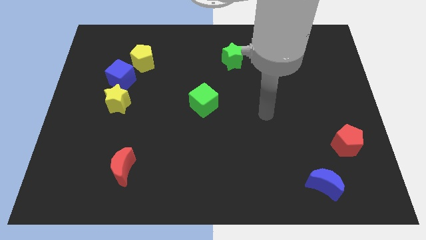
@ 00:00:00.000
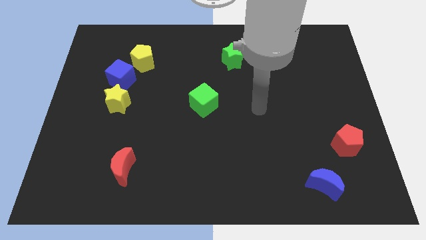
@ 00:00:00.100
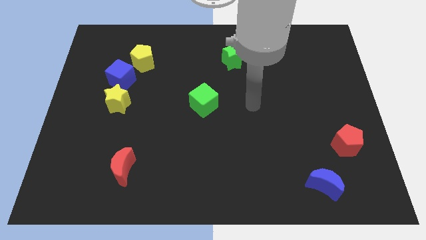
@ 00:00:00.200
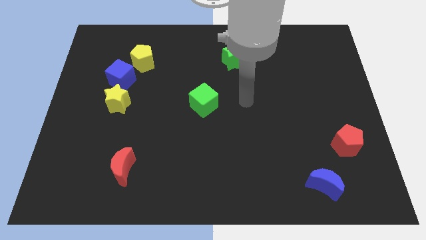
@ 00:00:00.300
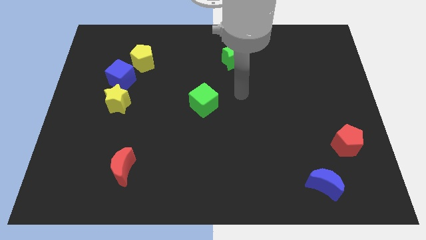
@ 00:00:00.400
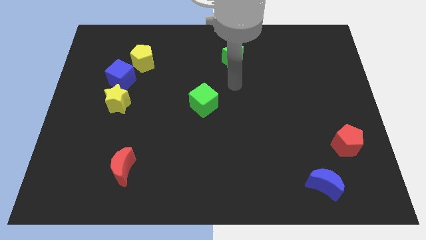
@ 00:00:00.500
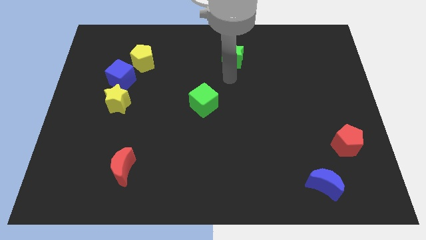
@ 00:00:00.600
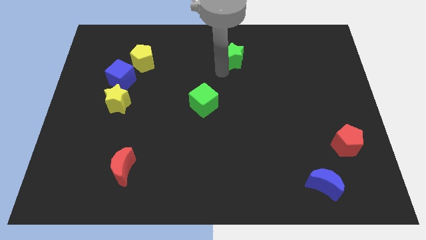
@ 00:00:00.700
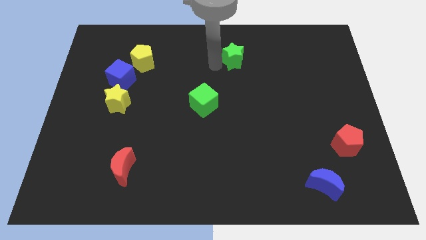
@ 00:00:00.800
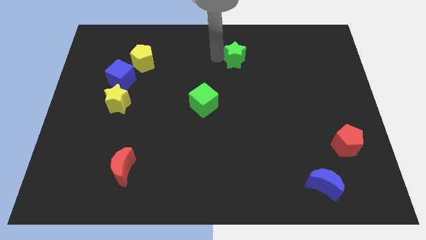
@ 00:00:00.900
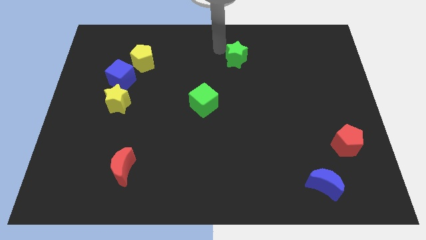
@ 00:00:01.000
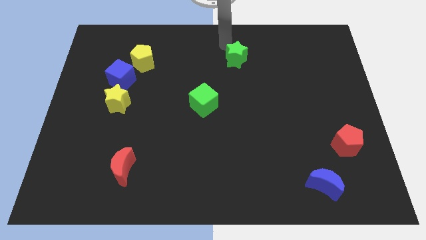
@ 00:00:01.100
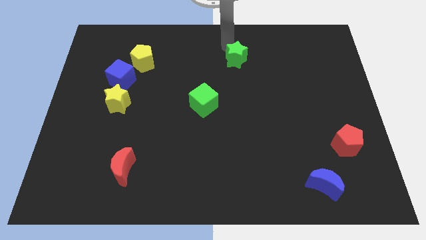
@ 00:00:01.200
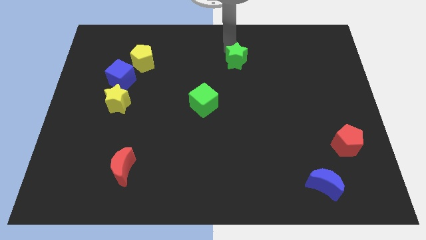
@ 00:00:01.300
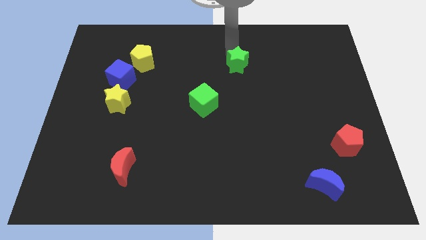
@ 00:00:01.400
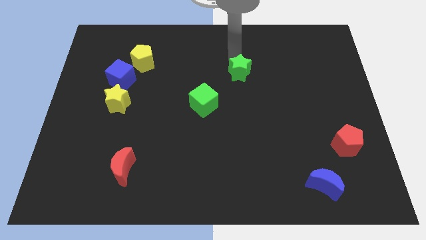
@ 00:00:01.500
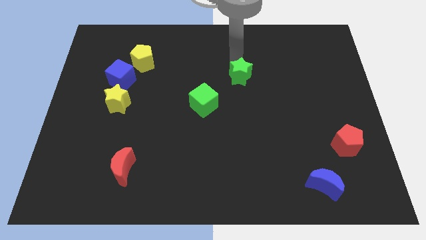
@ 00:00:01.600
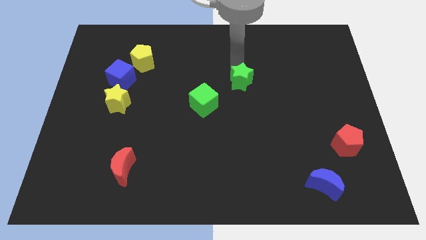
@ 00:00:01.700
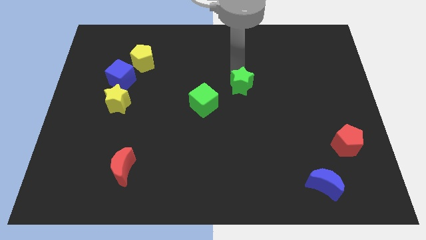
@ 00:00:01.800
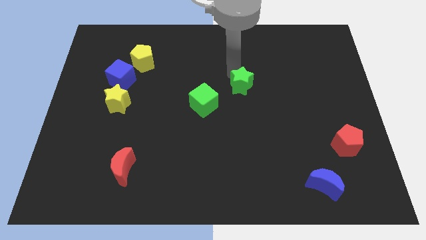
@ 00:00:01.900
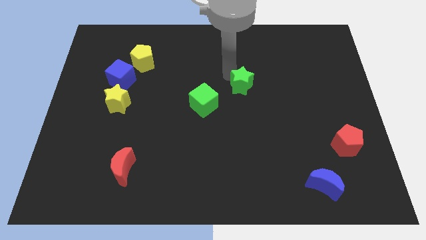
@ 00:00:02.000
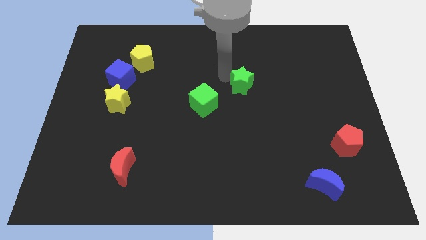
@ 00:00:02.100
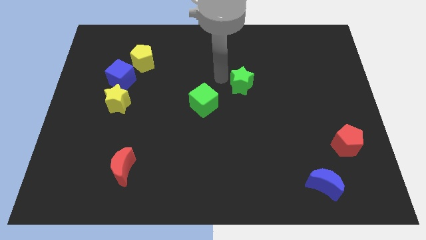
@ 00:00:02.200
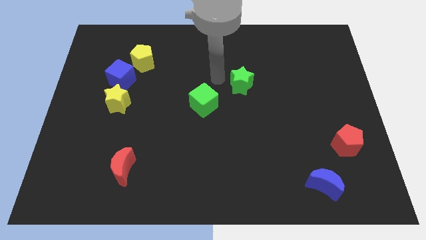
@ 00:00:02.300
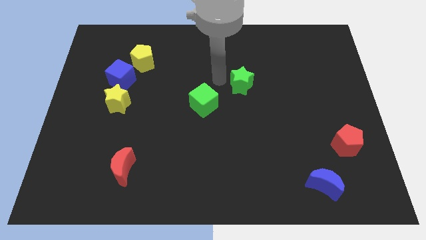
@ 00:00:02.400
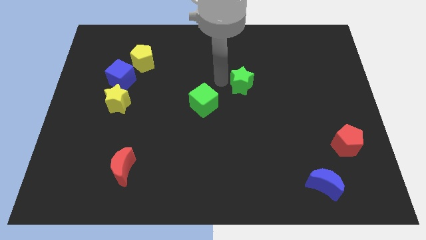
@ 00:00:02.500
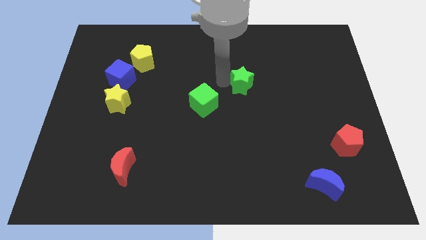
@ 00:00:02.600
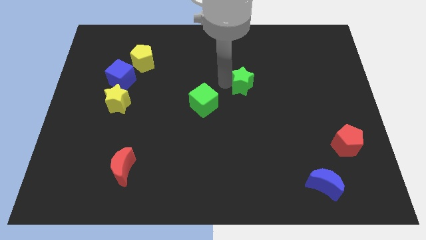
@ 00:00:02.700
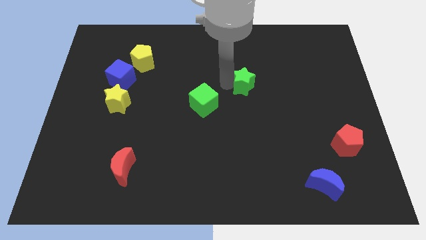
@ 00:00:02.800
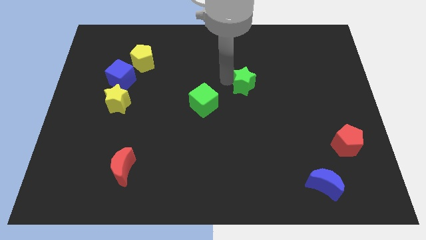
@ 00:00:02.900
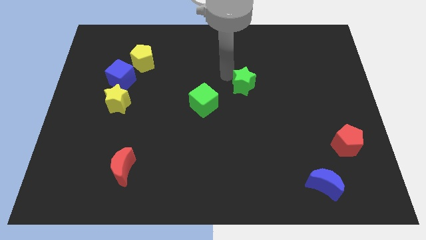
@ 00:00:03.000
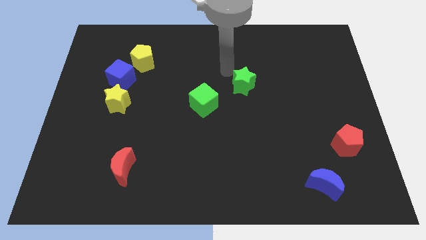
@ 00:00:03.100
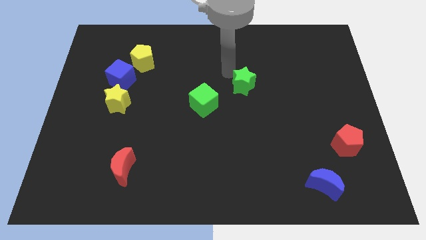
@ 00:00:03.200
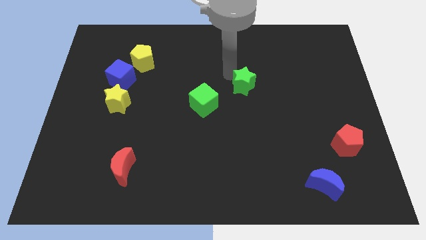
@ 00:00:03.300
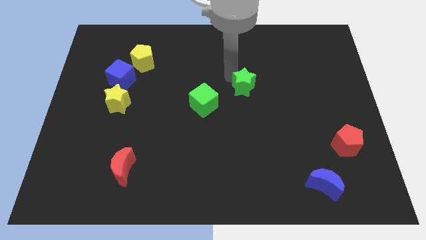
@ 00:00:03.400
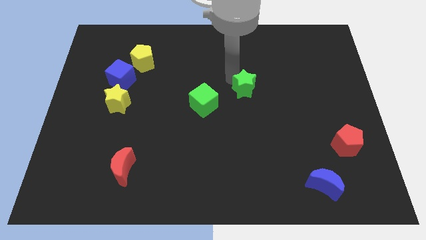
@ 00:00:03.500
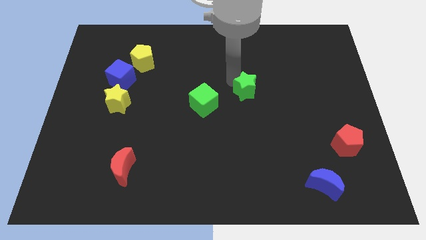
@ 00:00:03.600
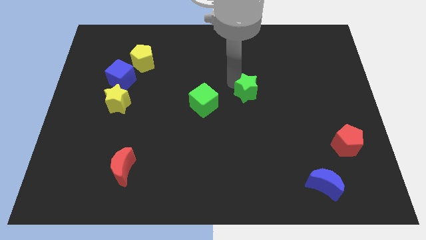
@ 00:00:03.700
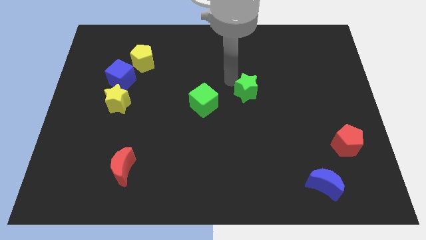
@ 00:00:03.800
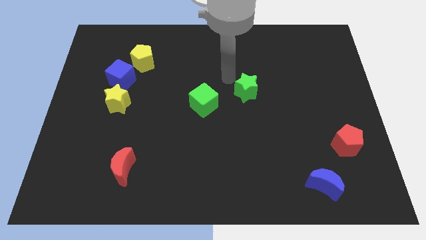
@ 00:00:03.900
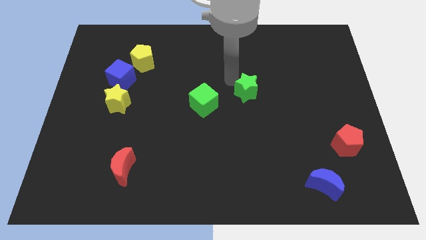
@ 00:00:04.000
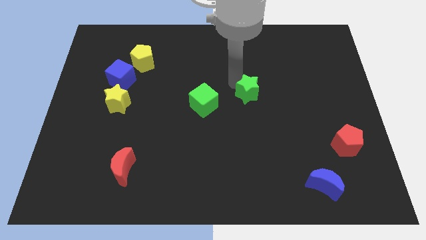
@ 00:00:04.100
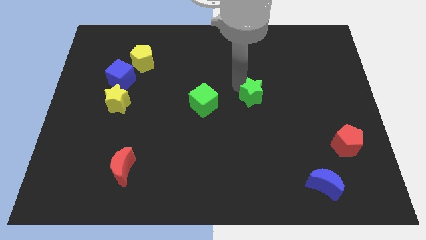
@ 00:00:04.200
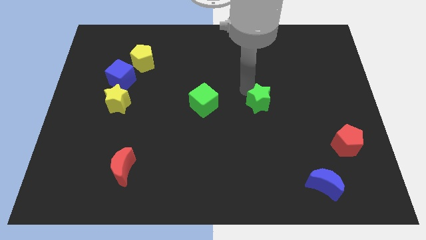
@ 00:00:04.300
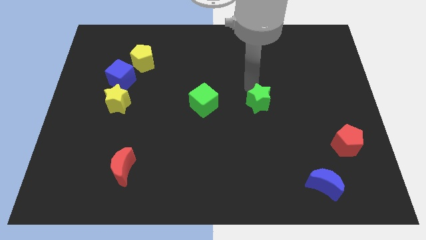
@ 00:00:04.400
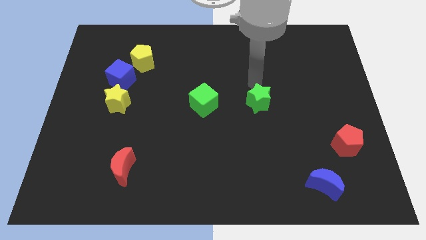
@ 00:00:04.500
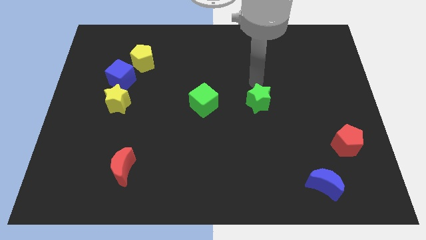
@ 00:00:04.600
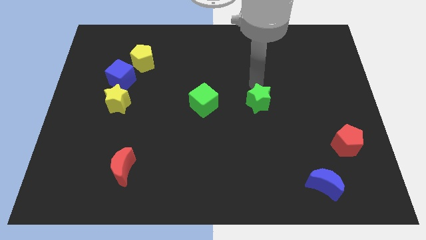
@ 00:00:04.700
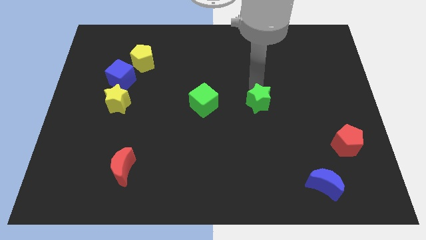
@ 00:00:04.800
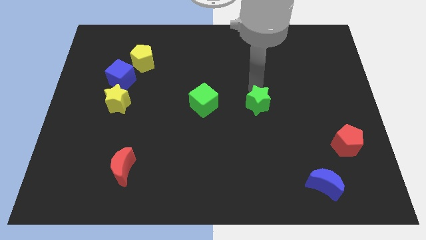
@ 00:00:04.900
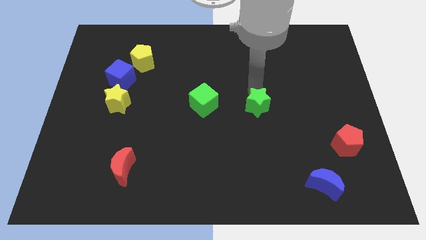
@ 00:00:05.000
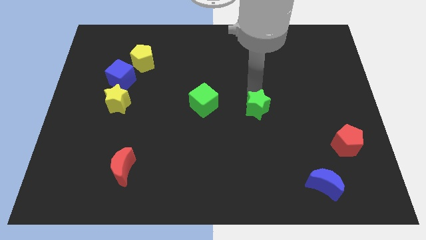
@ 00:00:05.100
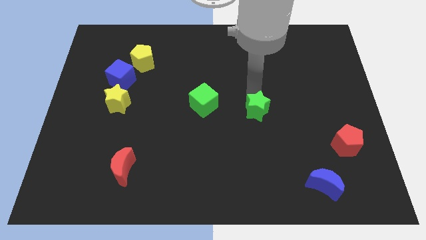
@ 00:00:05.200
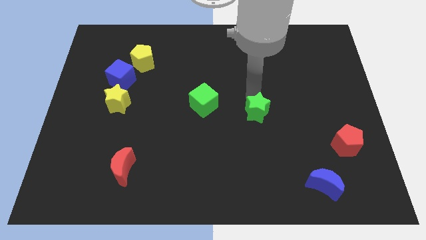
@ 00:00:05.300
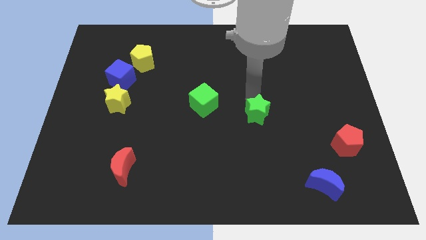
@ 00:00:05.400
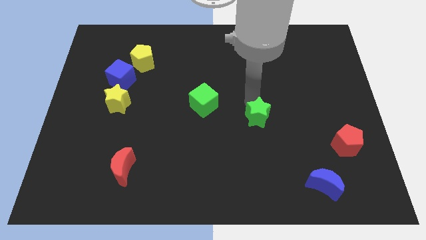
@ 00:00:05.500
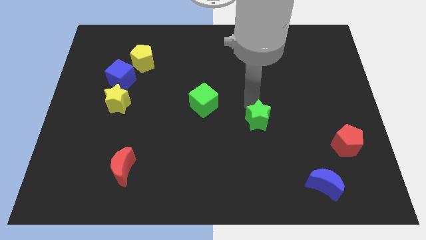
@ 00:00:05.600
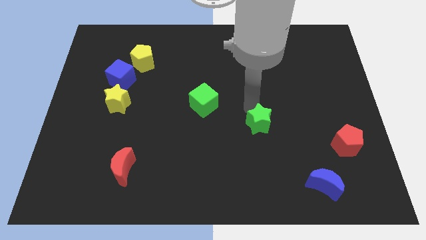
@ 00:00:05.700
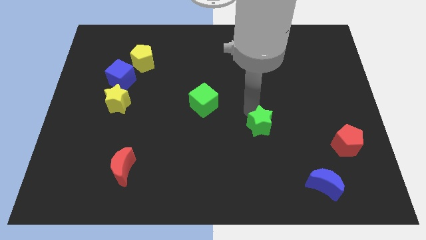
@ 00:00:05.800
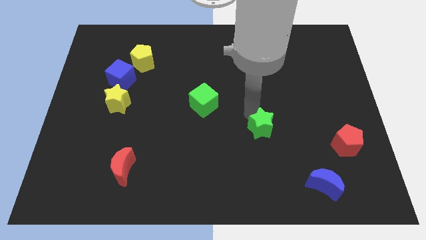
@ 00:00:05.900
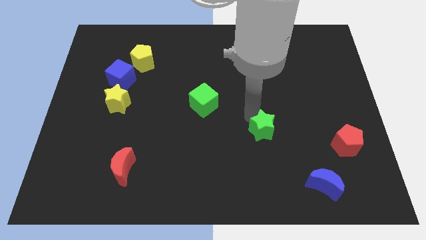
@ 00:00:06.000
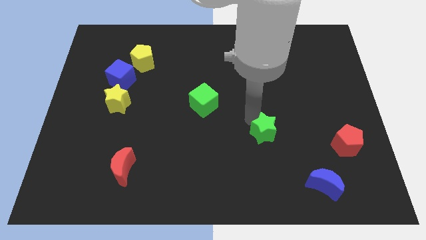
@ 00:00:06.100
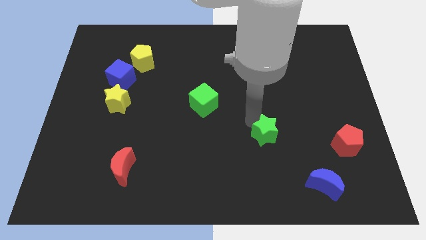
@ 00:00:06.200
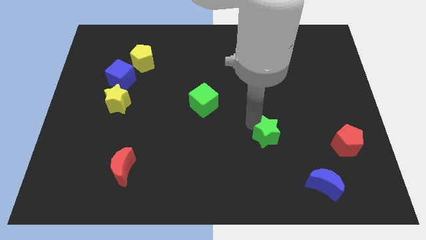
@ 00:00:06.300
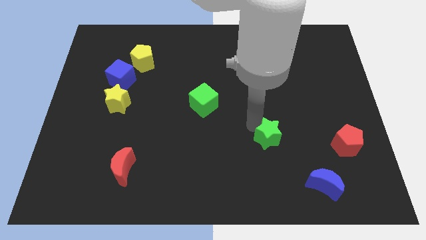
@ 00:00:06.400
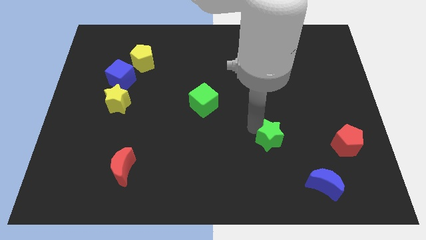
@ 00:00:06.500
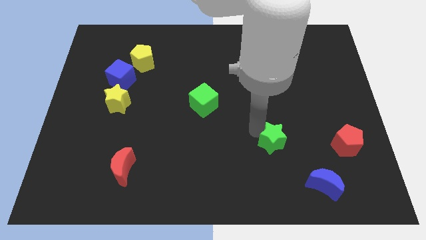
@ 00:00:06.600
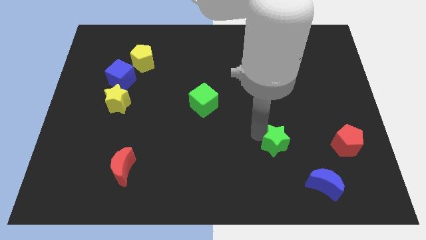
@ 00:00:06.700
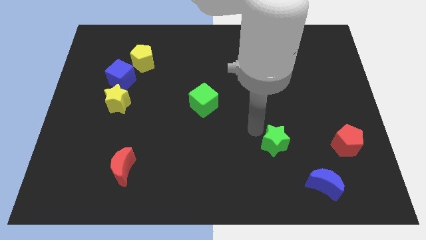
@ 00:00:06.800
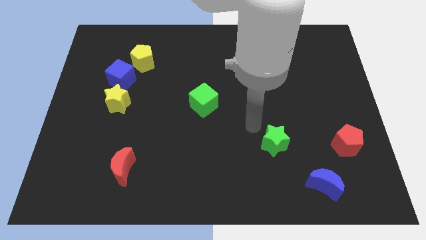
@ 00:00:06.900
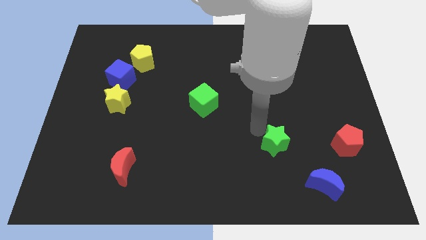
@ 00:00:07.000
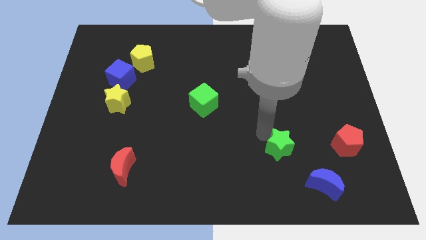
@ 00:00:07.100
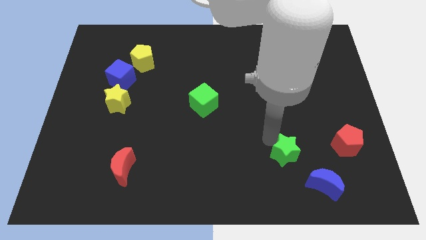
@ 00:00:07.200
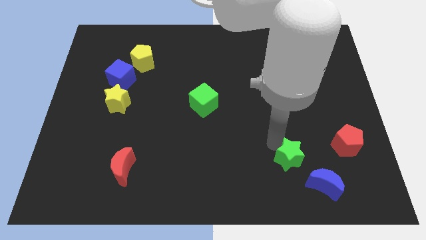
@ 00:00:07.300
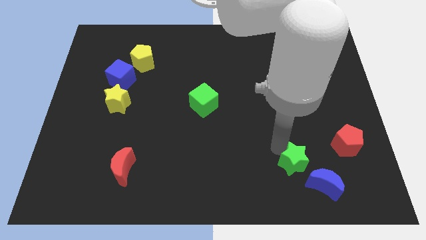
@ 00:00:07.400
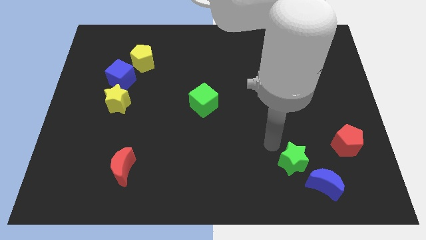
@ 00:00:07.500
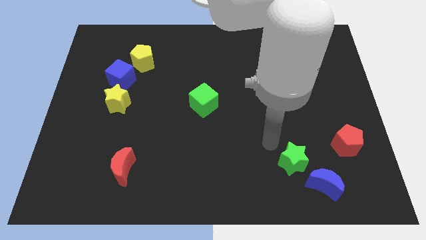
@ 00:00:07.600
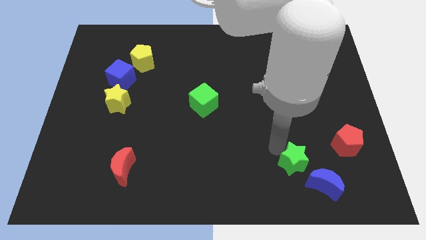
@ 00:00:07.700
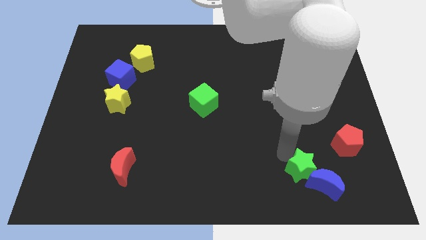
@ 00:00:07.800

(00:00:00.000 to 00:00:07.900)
put the green star close to the blue moon
